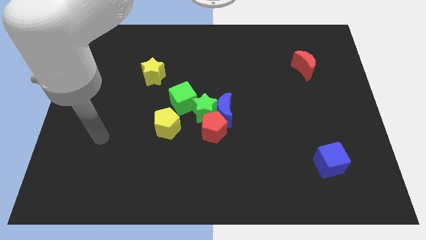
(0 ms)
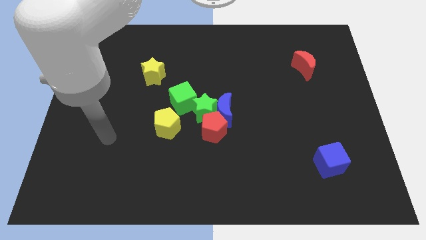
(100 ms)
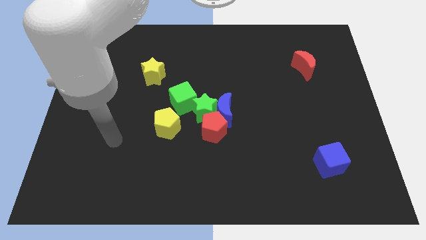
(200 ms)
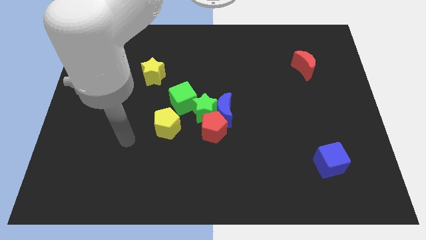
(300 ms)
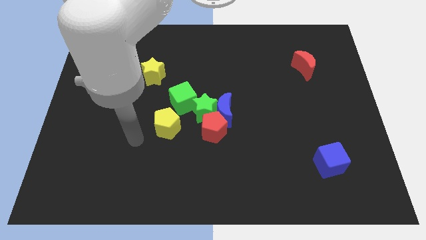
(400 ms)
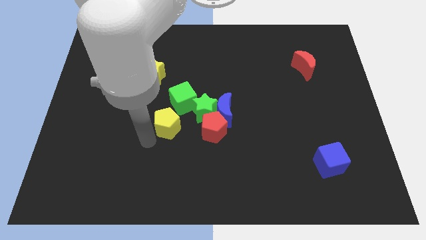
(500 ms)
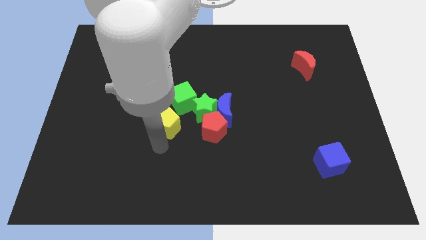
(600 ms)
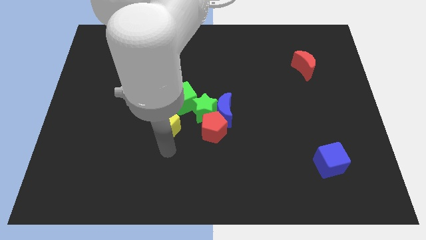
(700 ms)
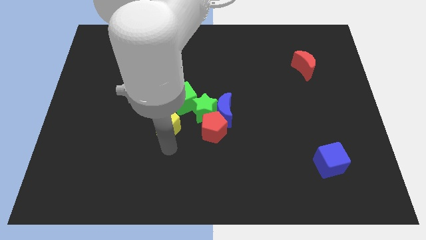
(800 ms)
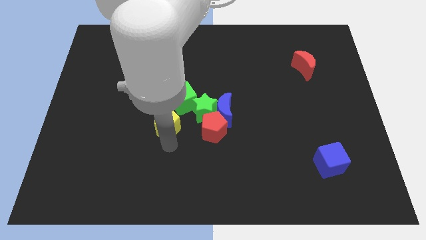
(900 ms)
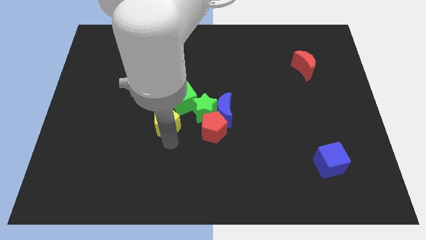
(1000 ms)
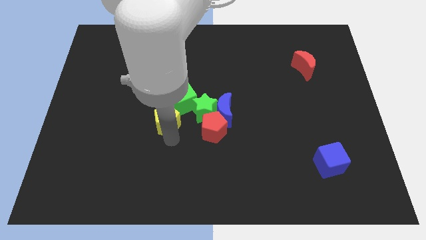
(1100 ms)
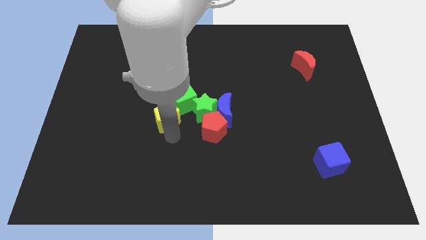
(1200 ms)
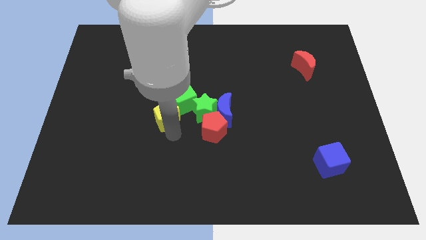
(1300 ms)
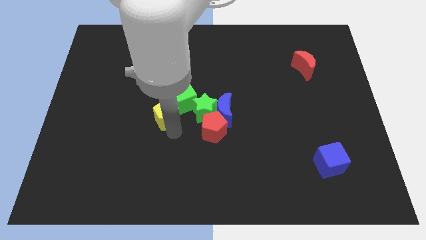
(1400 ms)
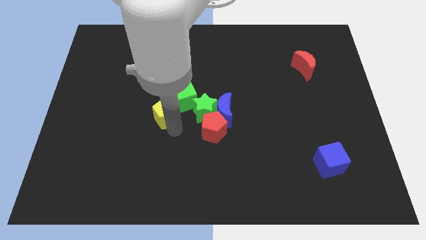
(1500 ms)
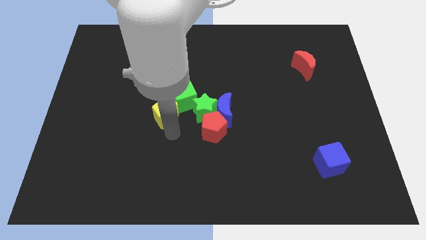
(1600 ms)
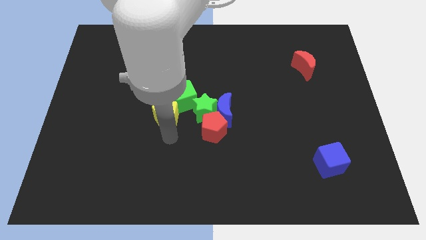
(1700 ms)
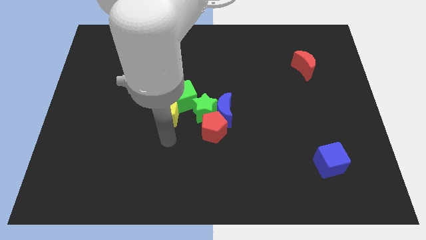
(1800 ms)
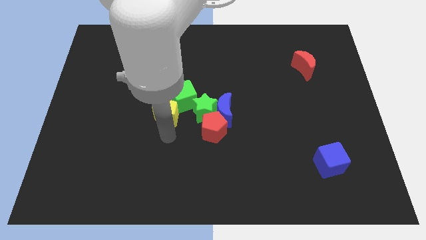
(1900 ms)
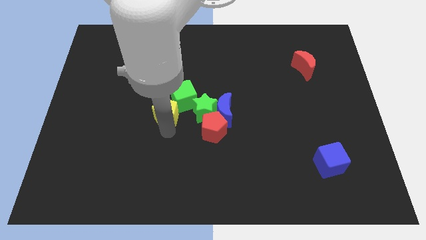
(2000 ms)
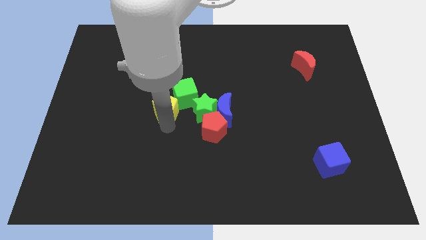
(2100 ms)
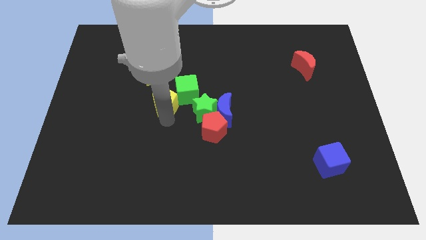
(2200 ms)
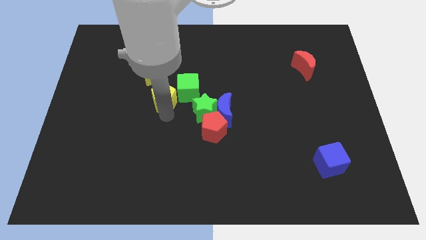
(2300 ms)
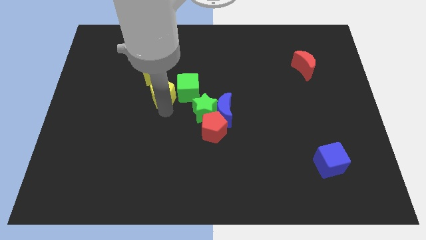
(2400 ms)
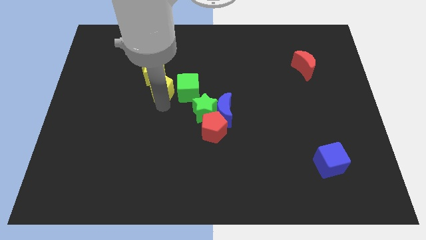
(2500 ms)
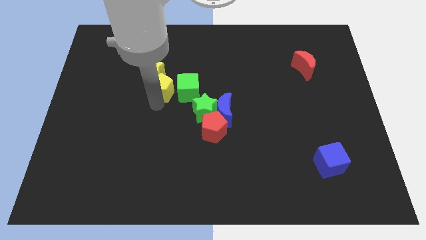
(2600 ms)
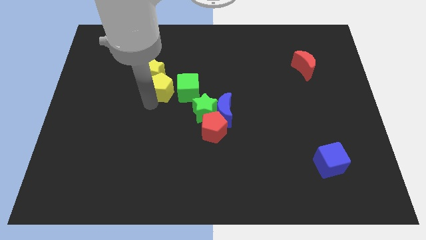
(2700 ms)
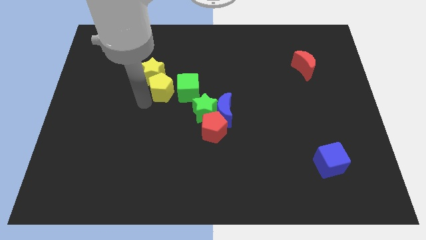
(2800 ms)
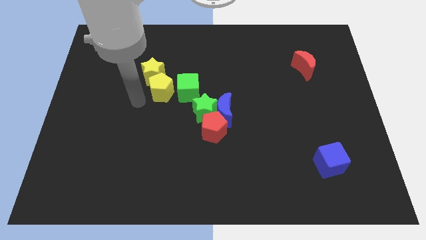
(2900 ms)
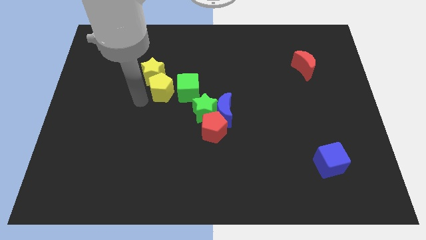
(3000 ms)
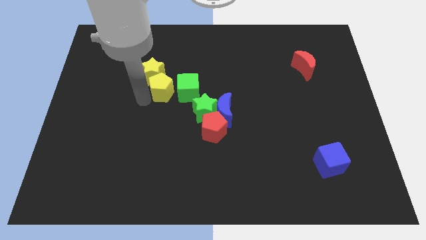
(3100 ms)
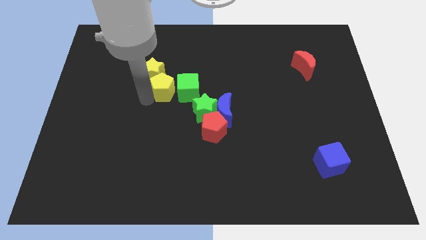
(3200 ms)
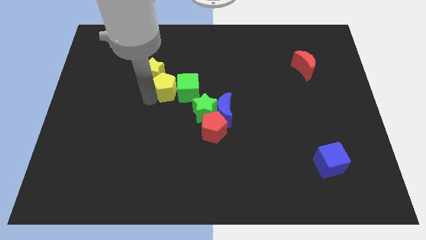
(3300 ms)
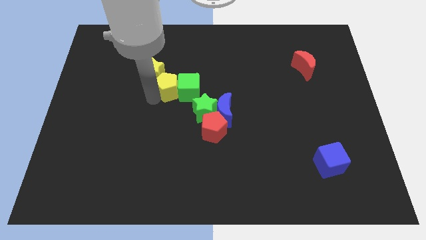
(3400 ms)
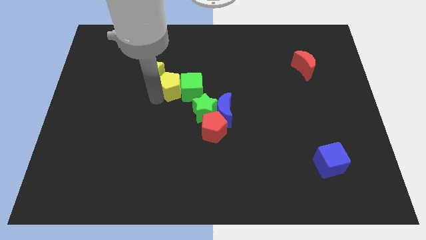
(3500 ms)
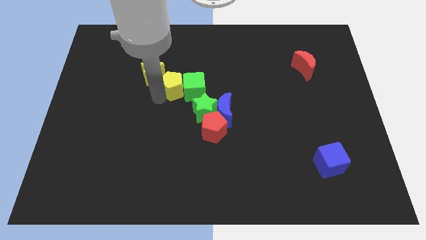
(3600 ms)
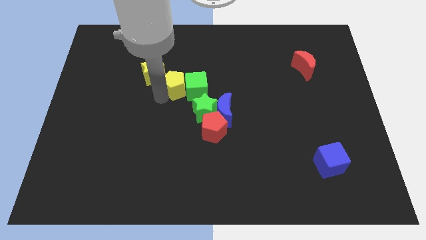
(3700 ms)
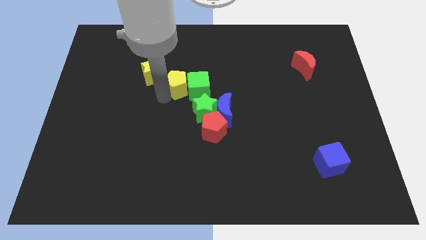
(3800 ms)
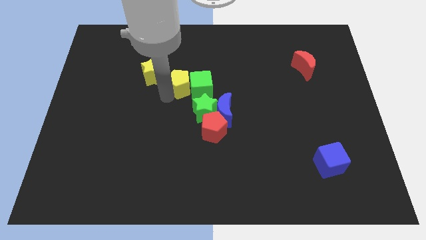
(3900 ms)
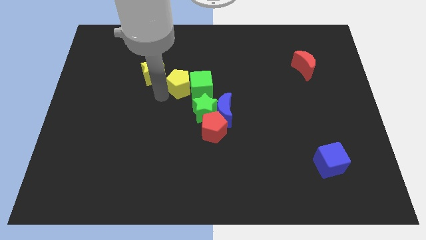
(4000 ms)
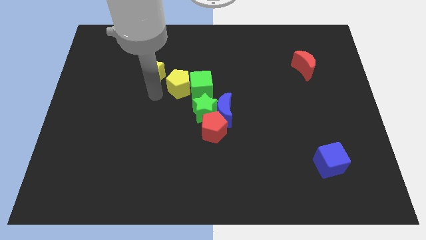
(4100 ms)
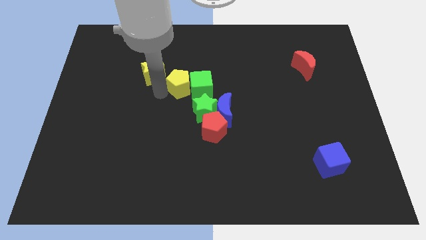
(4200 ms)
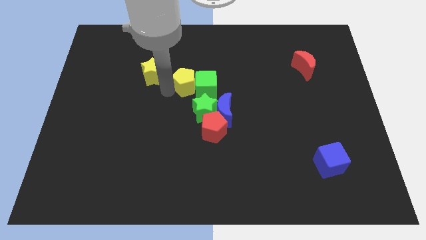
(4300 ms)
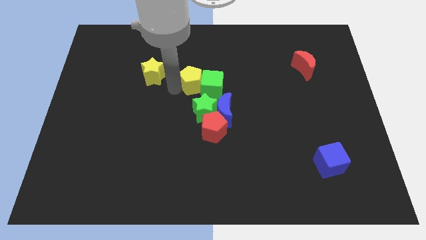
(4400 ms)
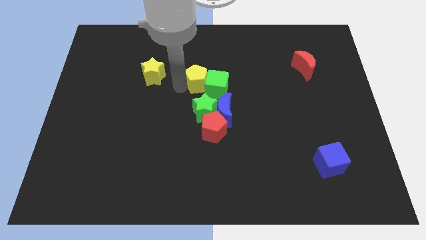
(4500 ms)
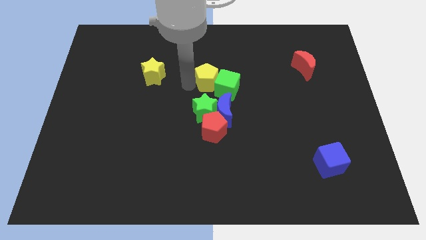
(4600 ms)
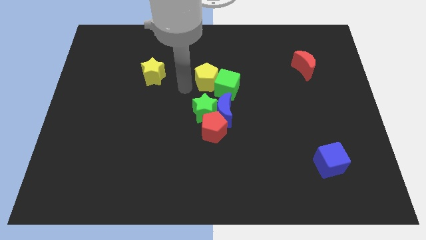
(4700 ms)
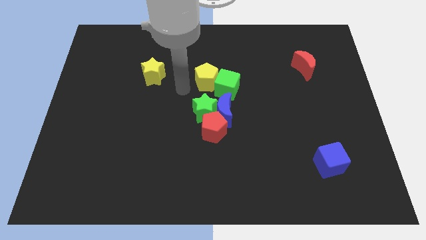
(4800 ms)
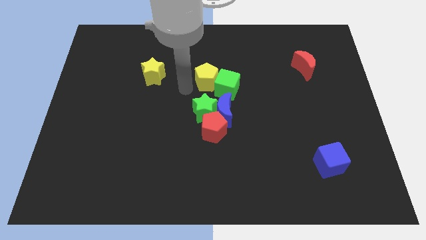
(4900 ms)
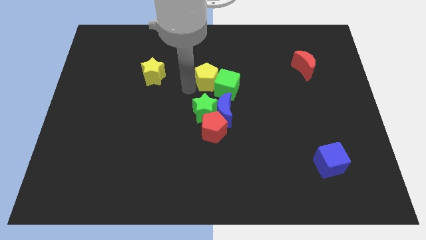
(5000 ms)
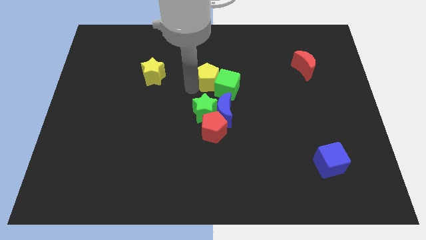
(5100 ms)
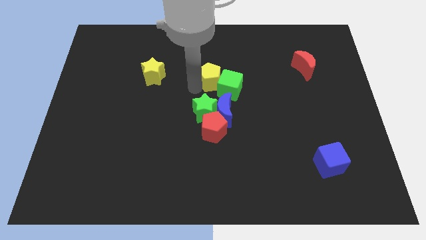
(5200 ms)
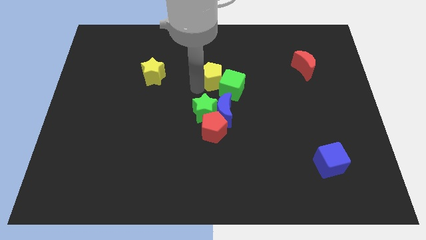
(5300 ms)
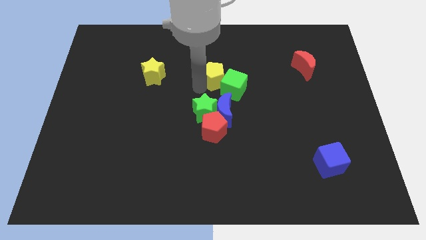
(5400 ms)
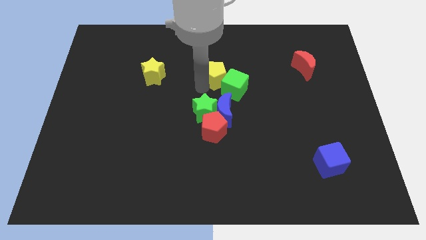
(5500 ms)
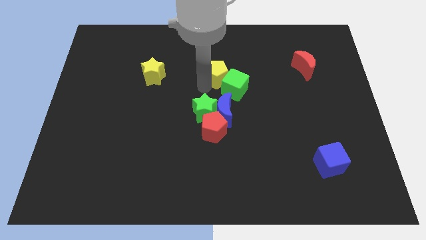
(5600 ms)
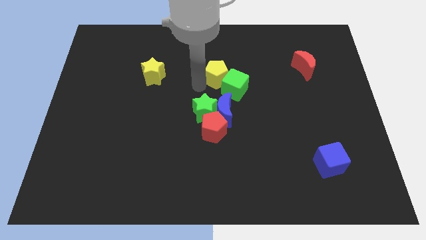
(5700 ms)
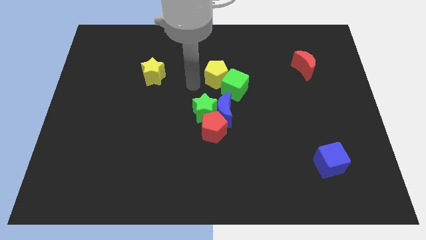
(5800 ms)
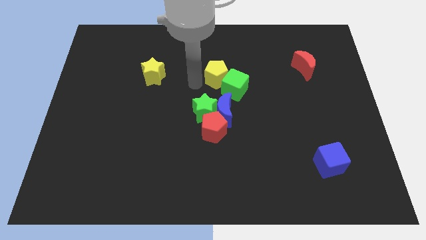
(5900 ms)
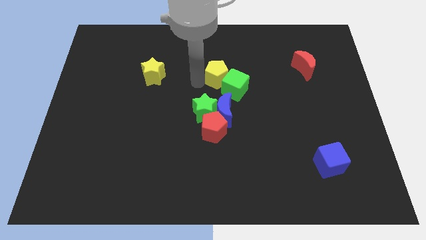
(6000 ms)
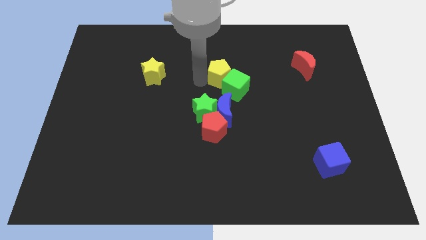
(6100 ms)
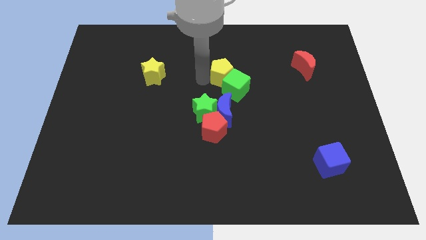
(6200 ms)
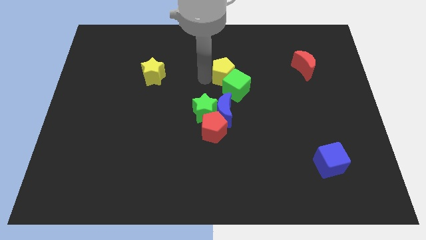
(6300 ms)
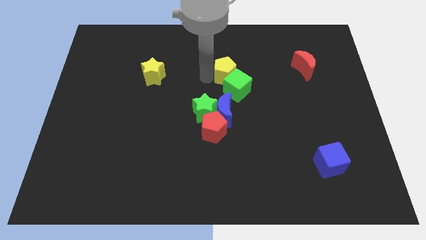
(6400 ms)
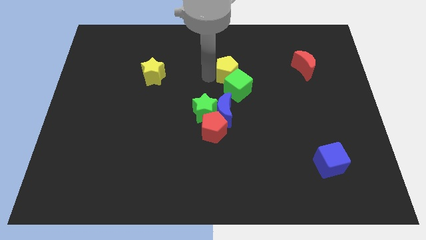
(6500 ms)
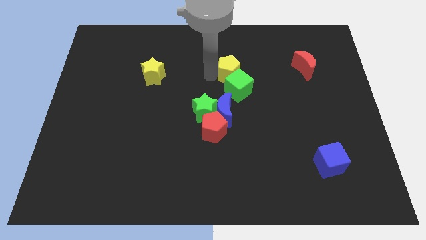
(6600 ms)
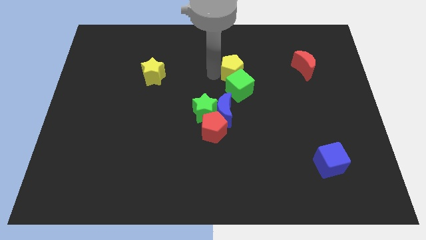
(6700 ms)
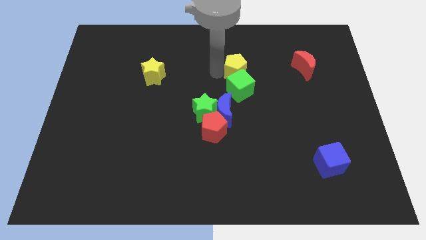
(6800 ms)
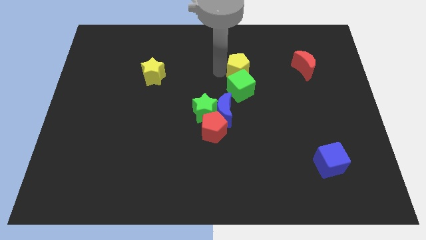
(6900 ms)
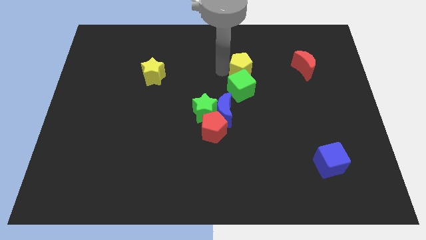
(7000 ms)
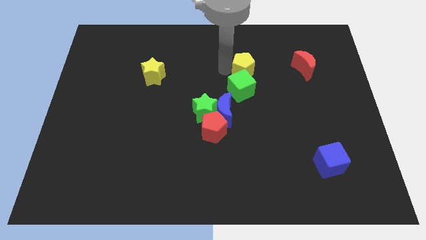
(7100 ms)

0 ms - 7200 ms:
put the yellow pentagon left of the red moon

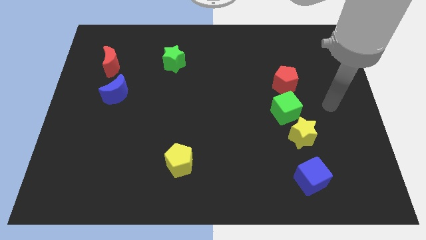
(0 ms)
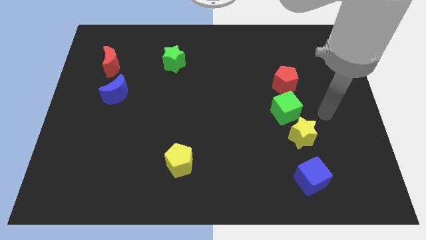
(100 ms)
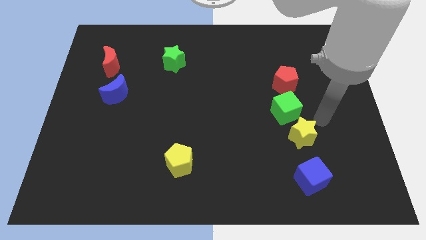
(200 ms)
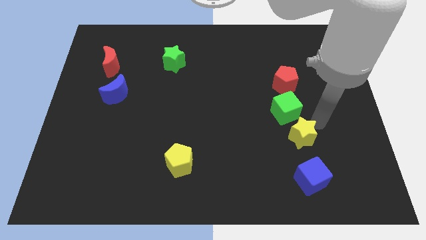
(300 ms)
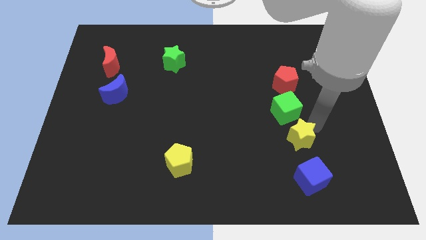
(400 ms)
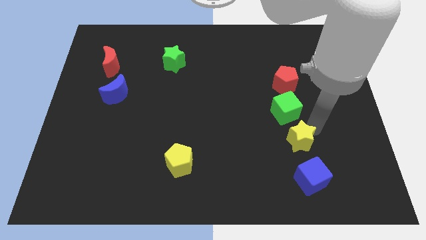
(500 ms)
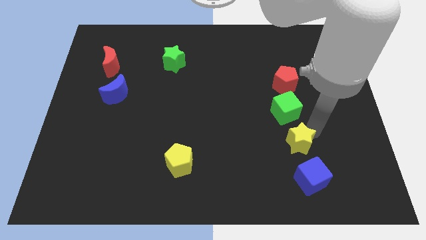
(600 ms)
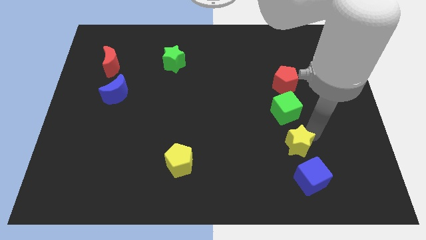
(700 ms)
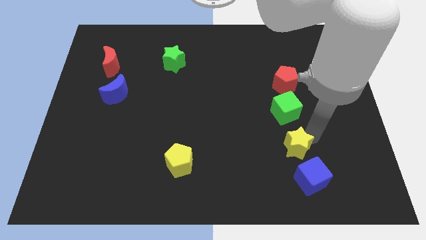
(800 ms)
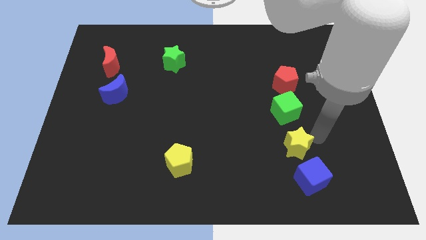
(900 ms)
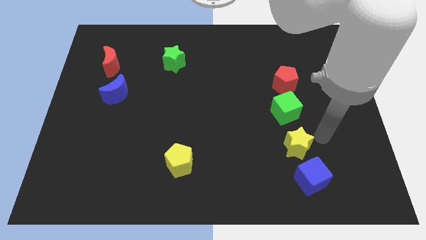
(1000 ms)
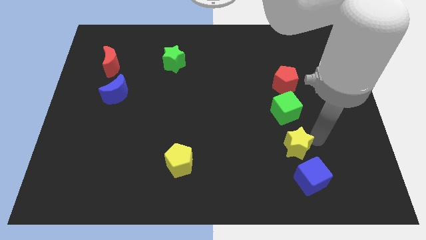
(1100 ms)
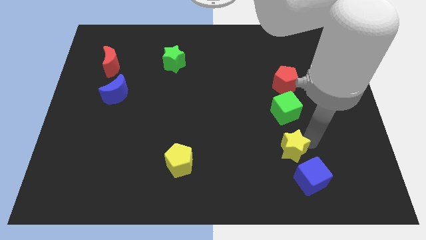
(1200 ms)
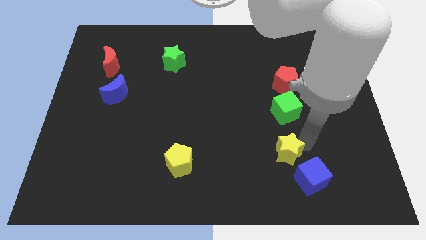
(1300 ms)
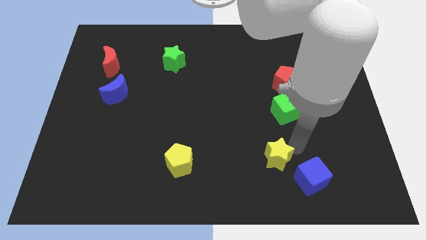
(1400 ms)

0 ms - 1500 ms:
move the yellow star just left of the blue cube
